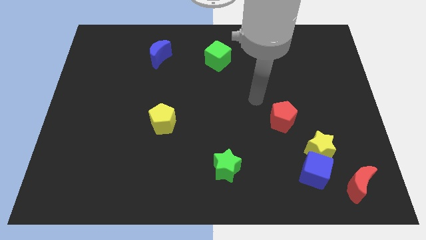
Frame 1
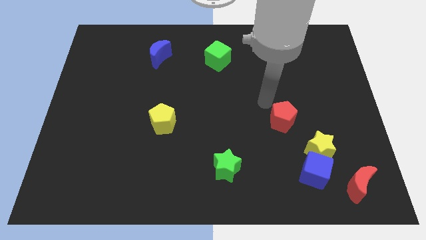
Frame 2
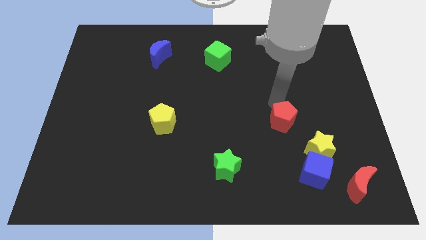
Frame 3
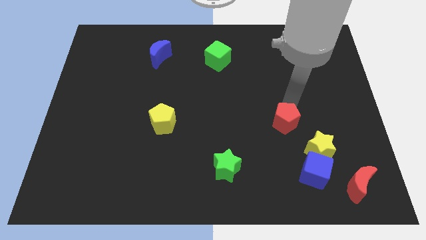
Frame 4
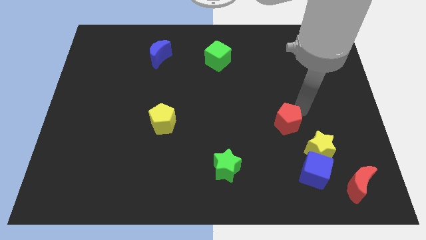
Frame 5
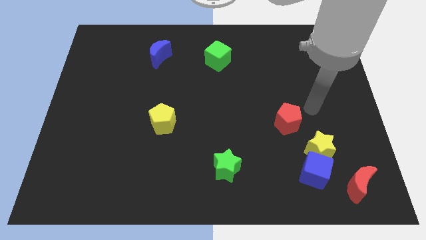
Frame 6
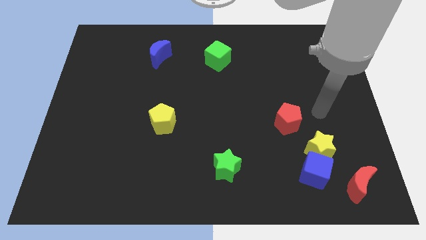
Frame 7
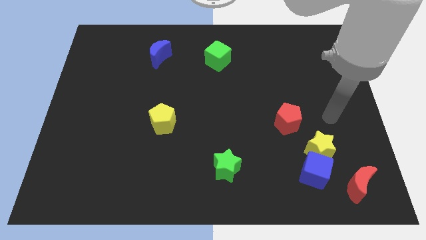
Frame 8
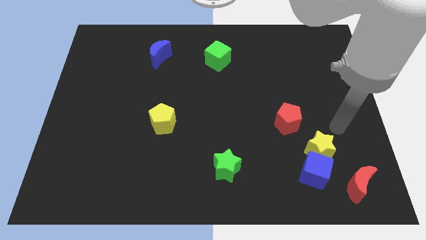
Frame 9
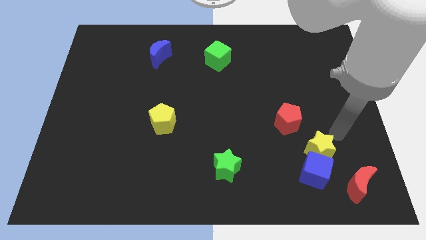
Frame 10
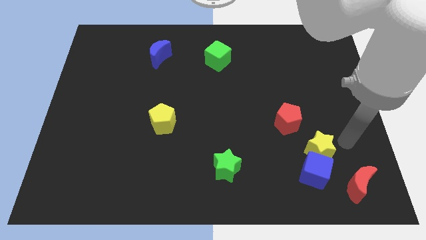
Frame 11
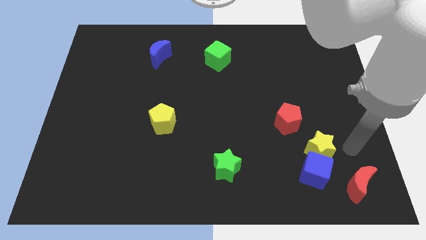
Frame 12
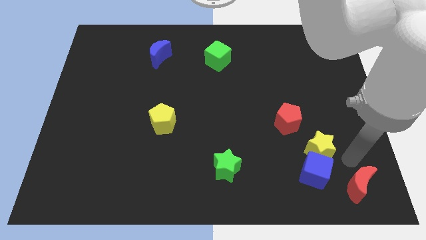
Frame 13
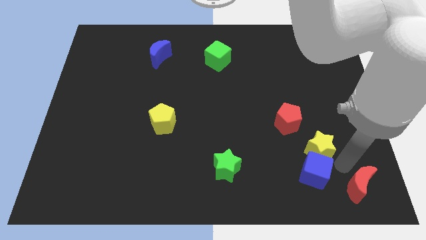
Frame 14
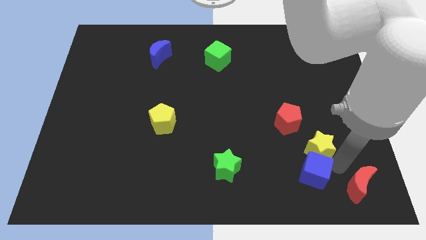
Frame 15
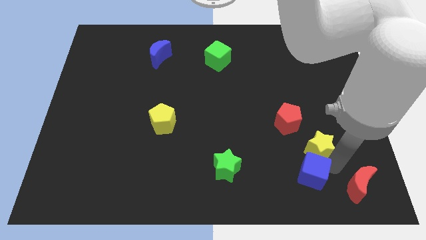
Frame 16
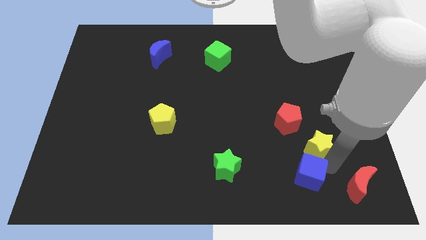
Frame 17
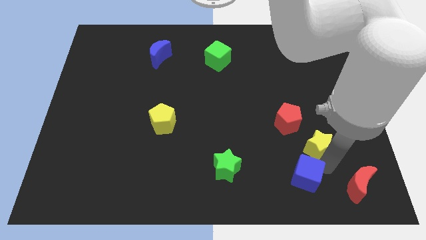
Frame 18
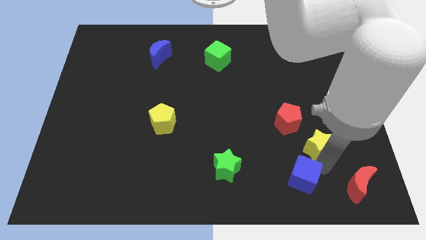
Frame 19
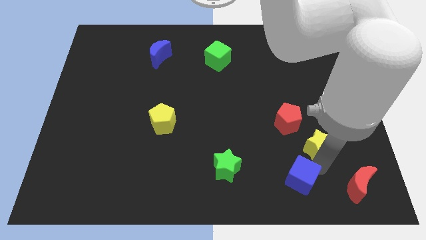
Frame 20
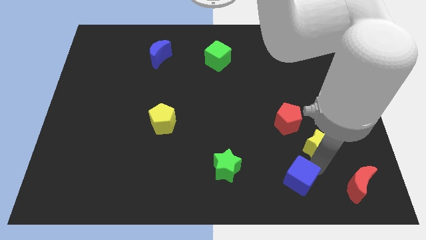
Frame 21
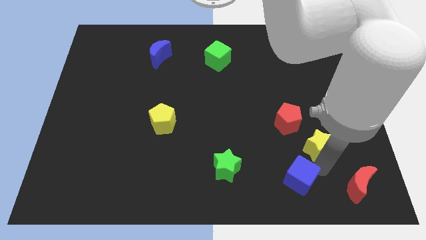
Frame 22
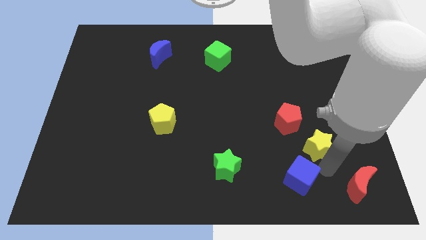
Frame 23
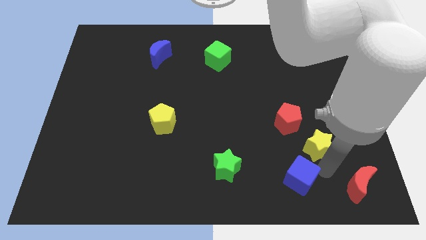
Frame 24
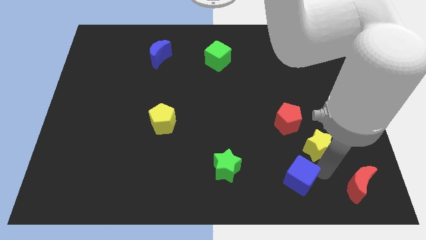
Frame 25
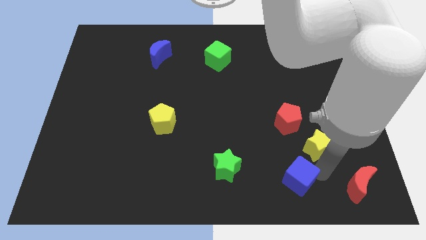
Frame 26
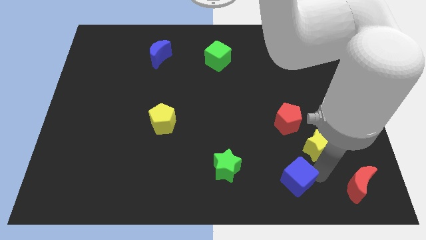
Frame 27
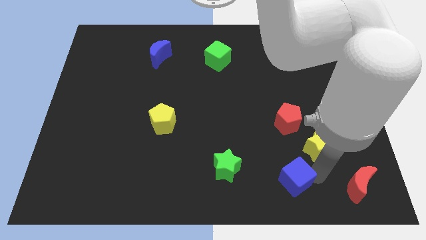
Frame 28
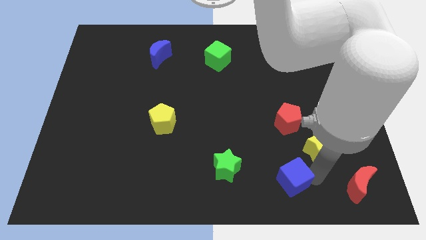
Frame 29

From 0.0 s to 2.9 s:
move the blue cube away from the yellow star and red moon

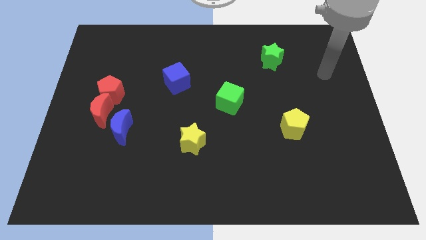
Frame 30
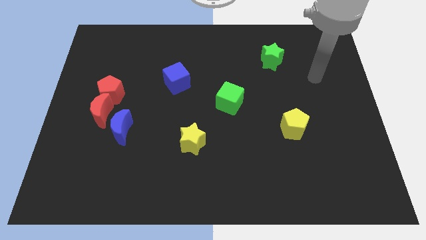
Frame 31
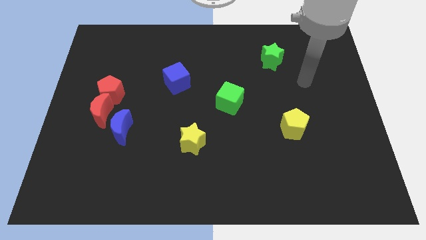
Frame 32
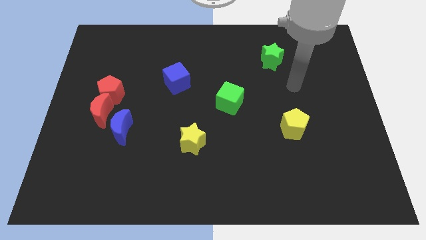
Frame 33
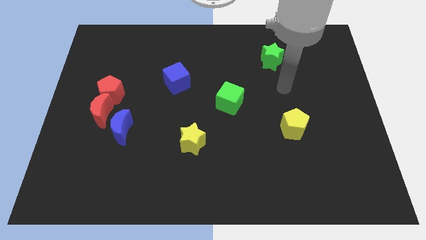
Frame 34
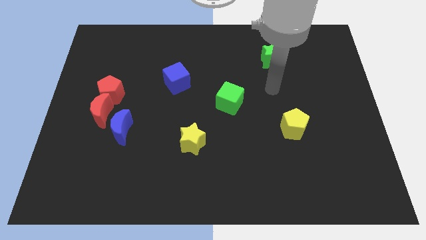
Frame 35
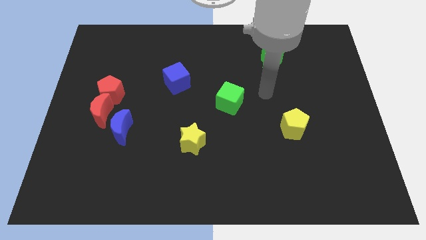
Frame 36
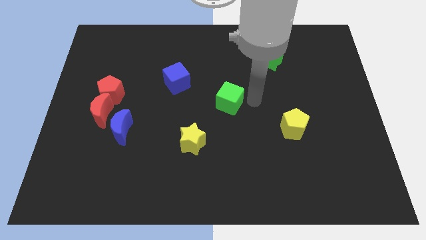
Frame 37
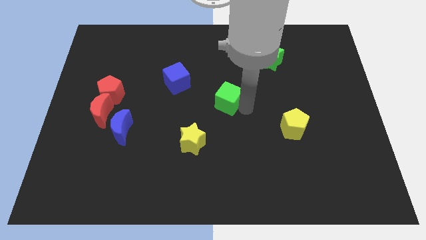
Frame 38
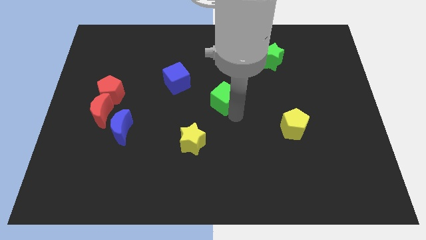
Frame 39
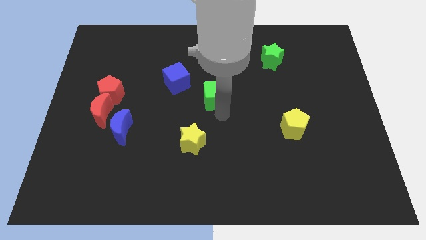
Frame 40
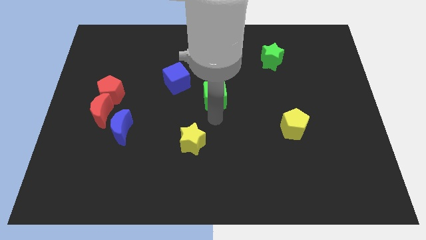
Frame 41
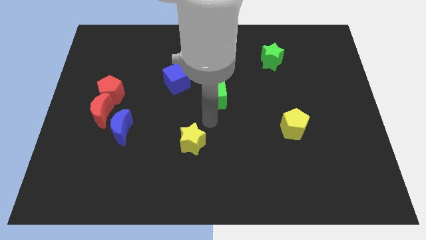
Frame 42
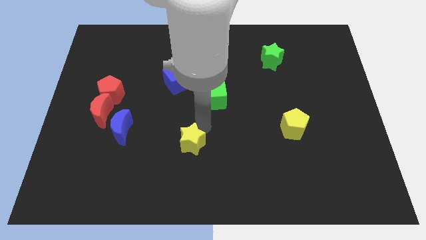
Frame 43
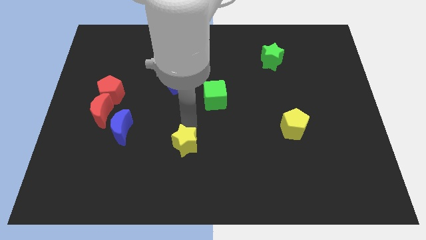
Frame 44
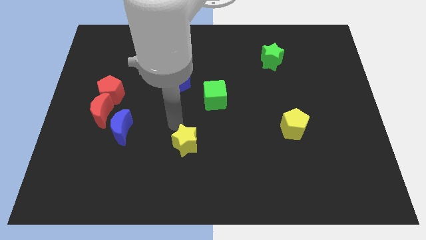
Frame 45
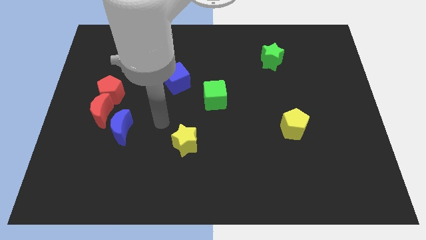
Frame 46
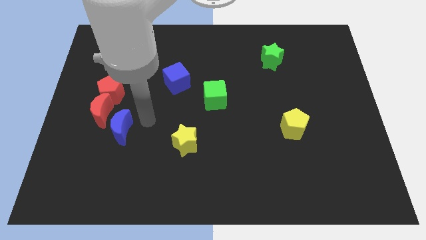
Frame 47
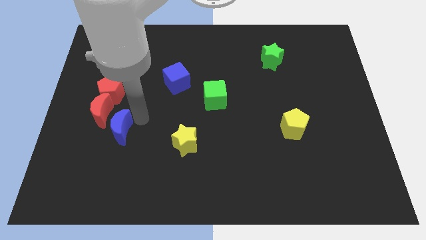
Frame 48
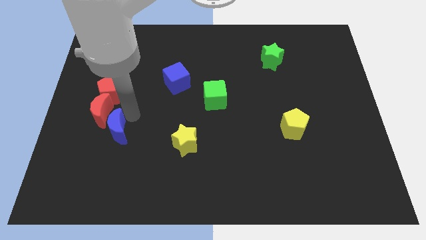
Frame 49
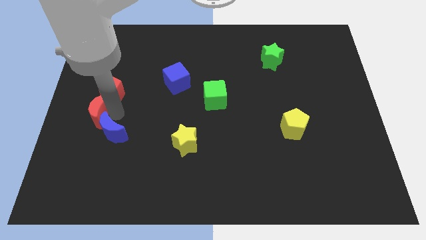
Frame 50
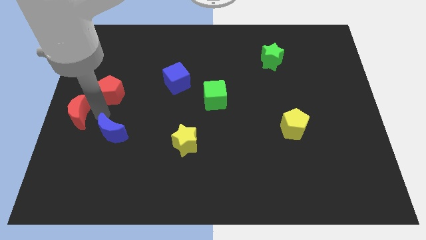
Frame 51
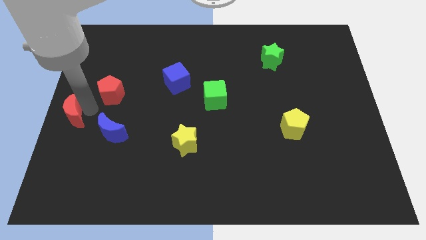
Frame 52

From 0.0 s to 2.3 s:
separate the red pentagon from the red moon

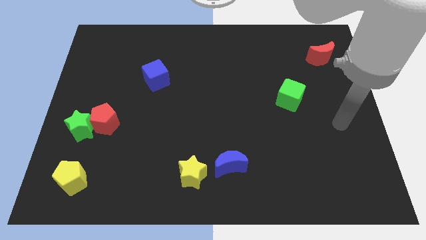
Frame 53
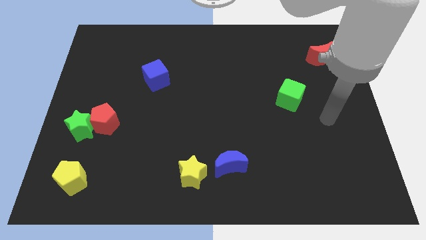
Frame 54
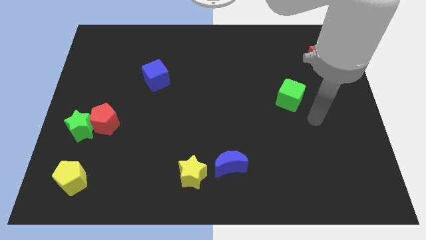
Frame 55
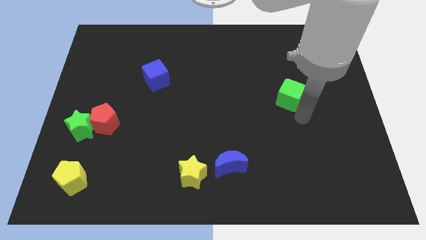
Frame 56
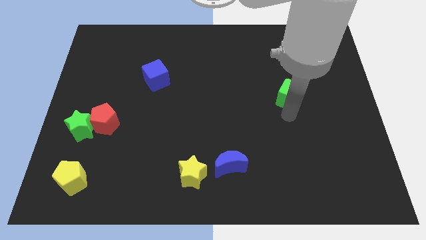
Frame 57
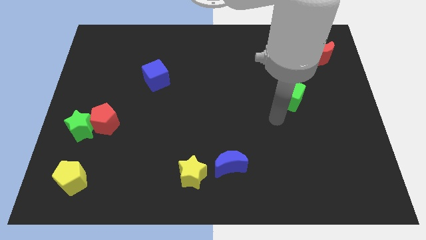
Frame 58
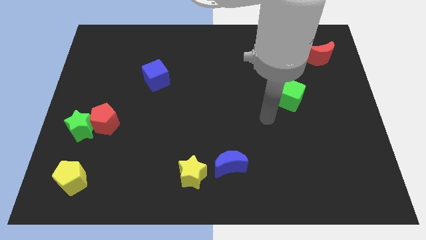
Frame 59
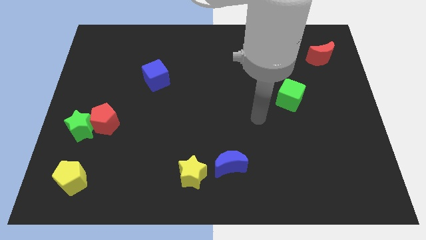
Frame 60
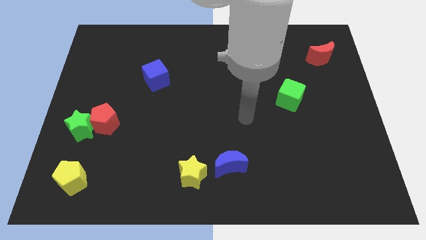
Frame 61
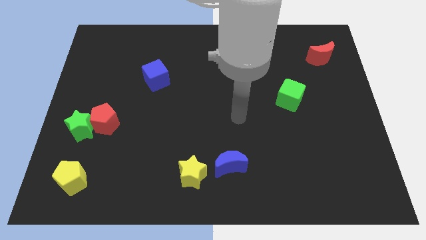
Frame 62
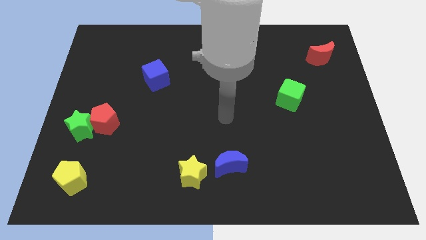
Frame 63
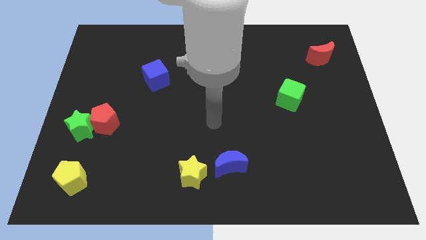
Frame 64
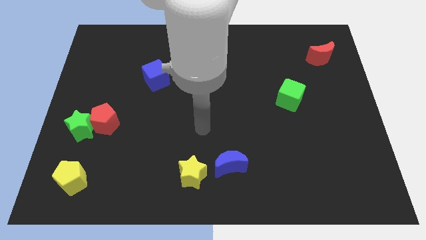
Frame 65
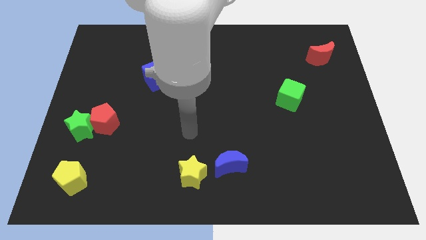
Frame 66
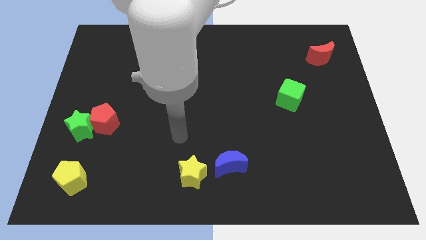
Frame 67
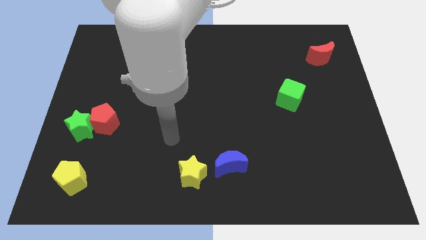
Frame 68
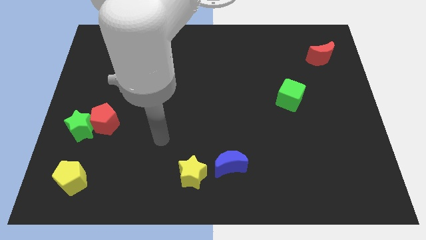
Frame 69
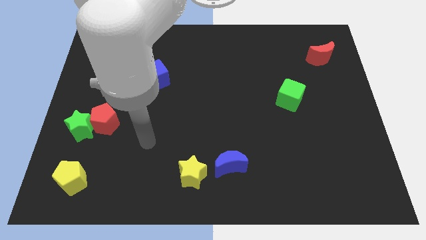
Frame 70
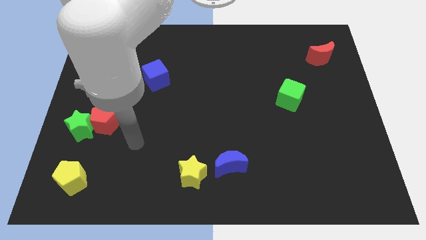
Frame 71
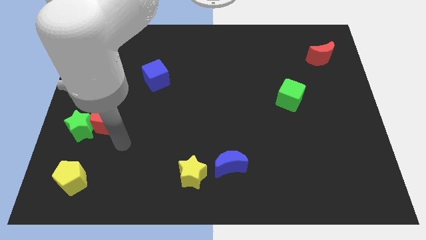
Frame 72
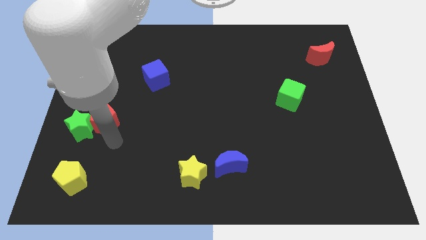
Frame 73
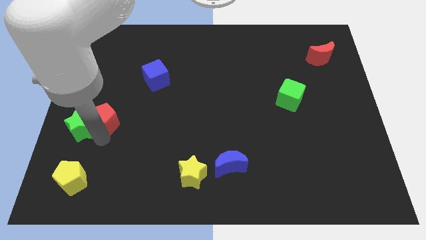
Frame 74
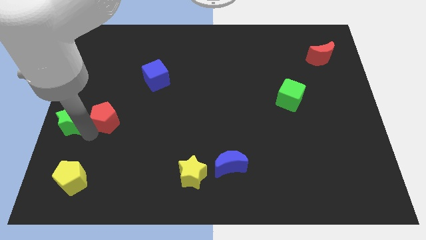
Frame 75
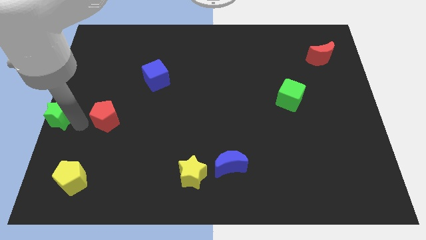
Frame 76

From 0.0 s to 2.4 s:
separate the red pentagon from the green star

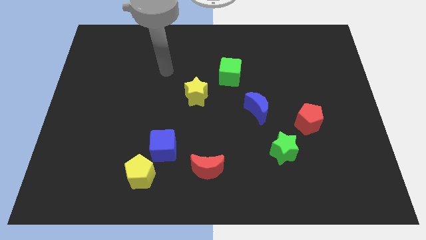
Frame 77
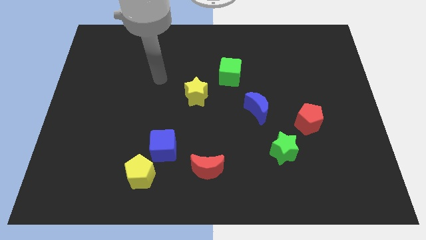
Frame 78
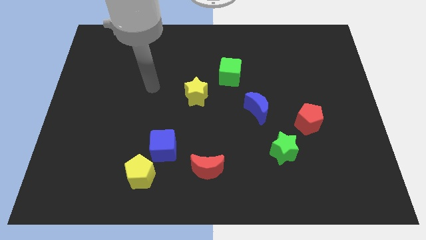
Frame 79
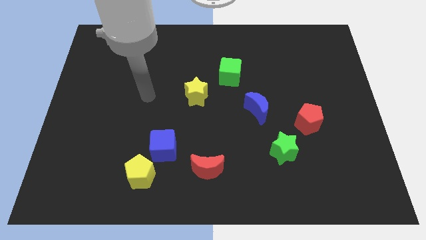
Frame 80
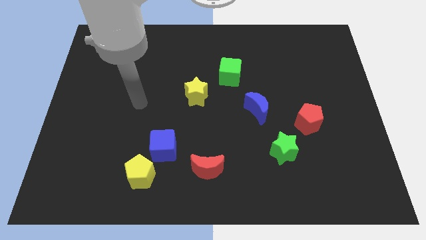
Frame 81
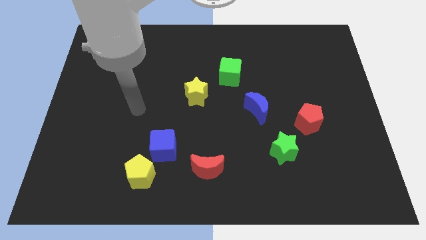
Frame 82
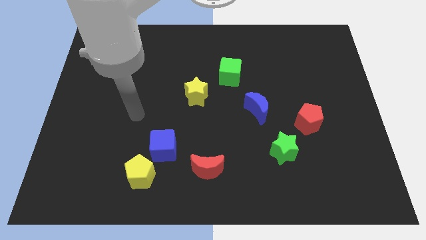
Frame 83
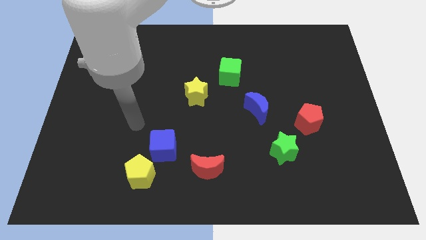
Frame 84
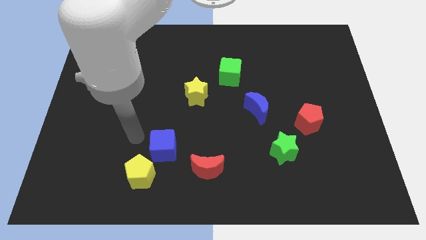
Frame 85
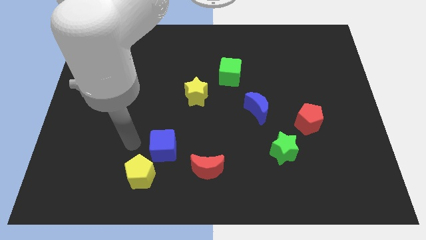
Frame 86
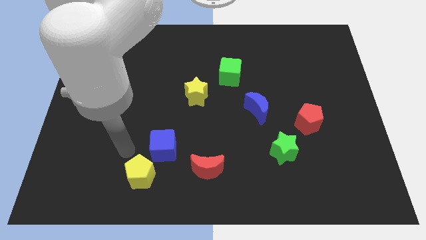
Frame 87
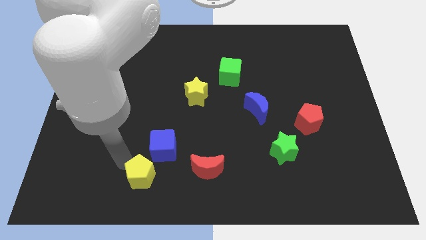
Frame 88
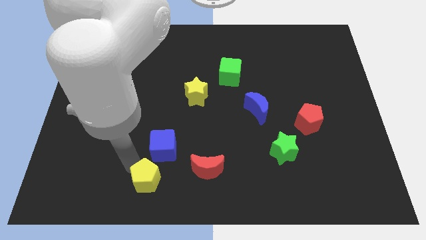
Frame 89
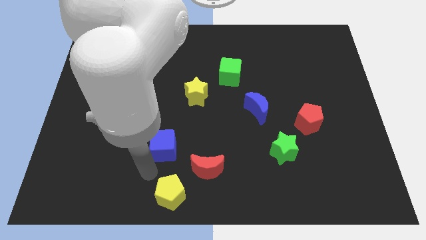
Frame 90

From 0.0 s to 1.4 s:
separate the blue cube from the yellow pentagon

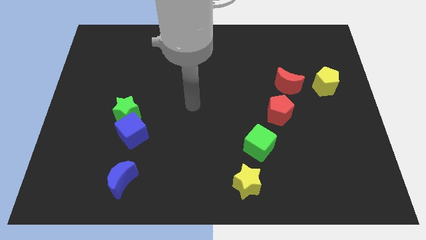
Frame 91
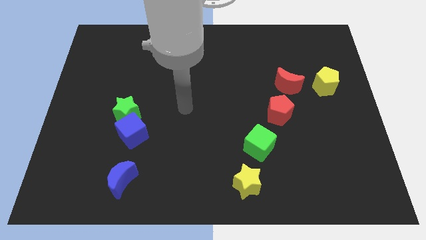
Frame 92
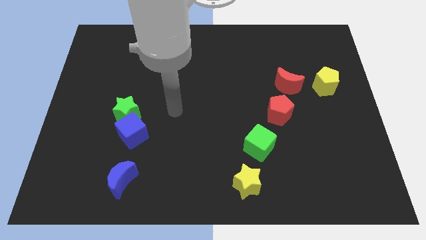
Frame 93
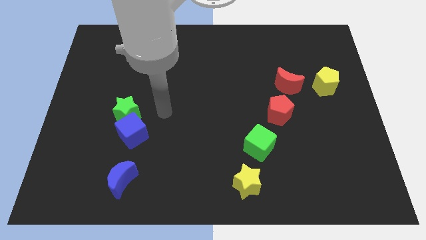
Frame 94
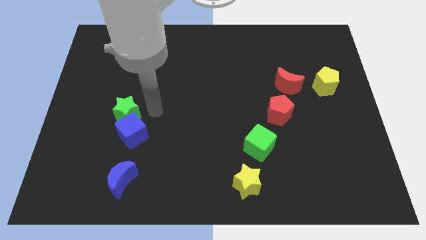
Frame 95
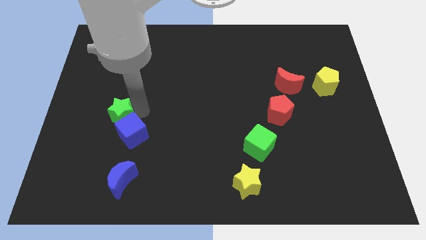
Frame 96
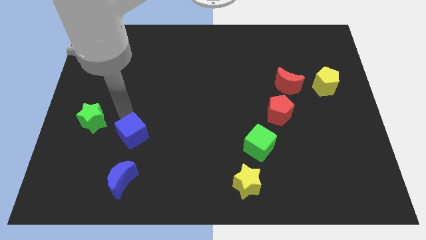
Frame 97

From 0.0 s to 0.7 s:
pull the blue cube apart from the green star
